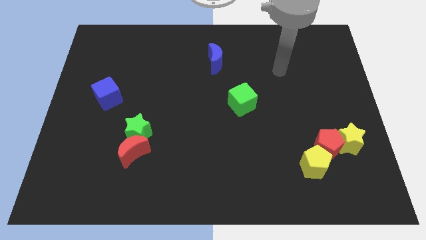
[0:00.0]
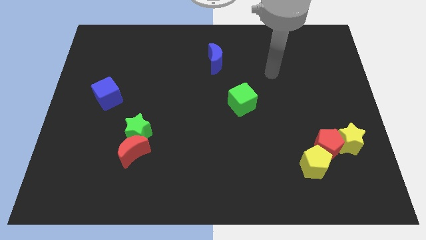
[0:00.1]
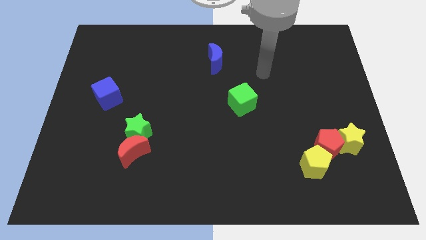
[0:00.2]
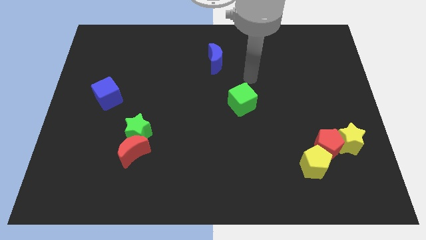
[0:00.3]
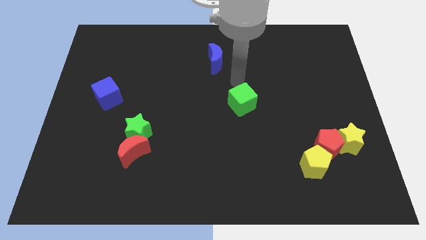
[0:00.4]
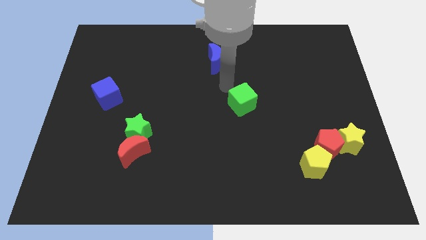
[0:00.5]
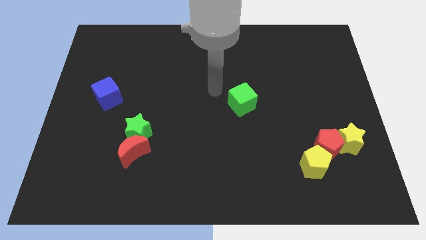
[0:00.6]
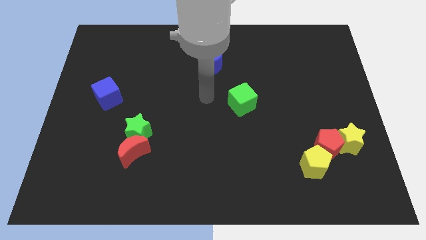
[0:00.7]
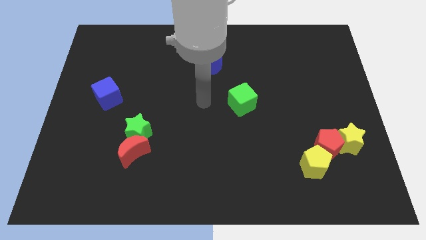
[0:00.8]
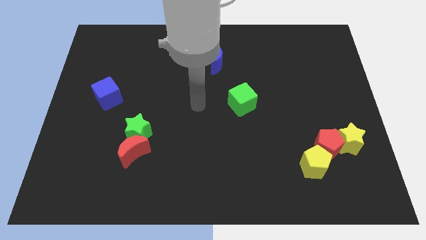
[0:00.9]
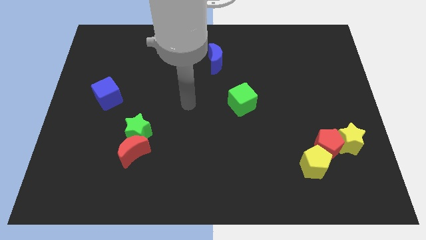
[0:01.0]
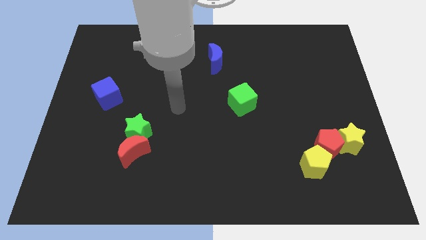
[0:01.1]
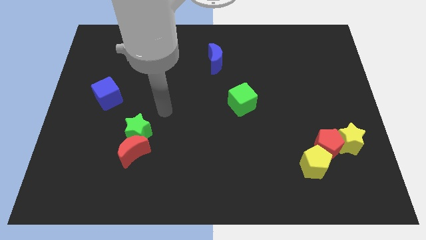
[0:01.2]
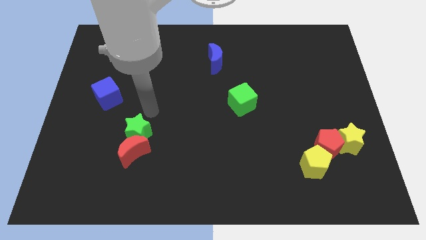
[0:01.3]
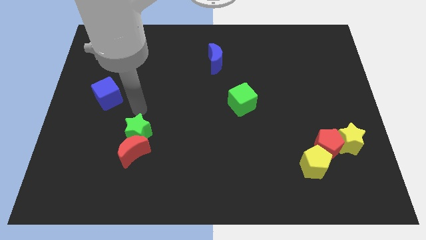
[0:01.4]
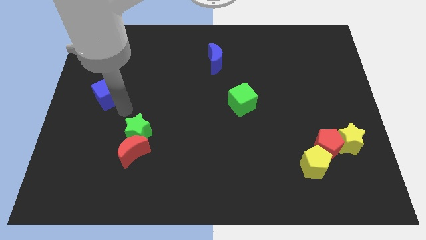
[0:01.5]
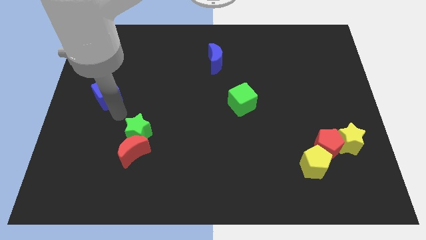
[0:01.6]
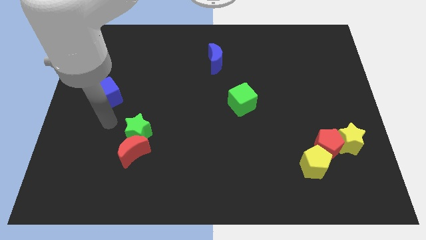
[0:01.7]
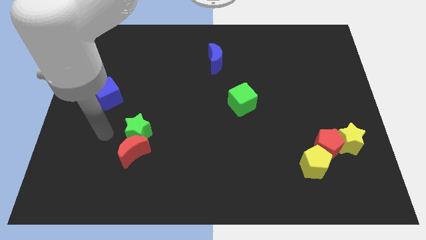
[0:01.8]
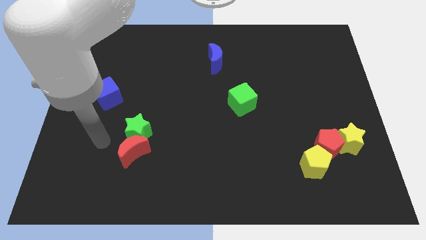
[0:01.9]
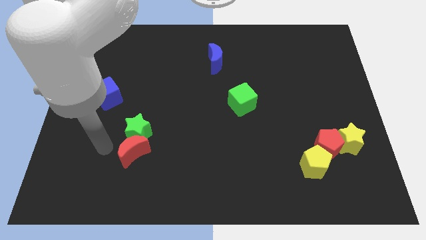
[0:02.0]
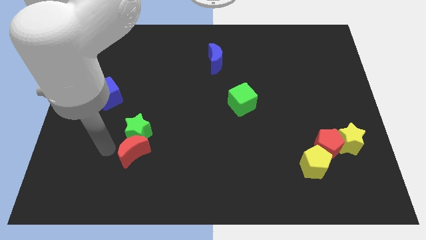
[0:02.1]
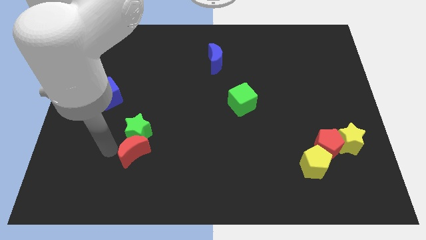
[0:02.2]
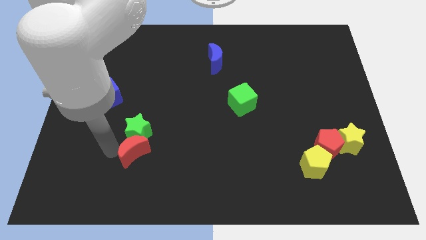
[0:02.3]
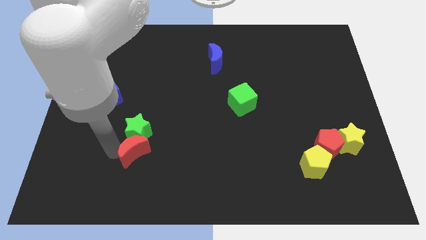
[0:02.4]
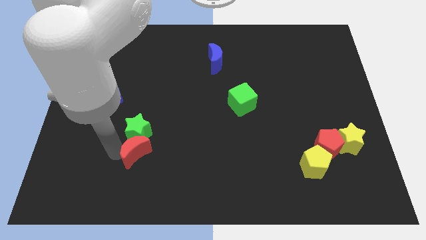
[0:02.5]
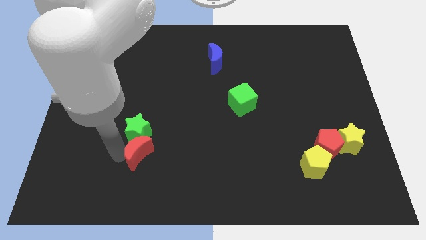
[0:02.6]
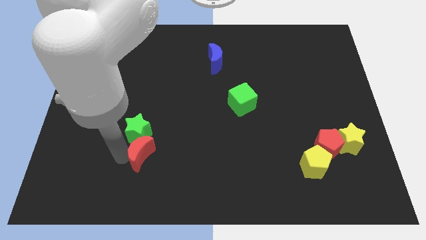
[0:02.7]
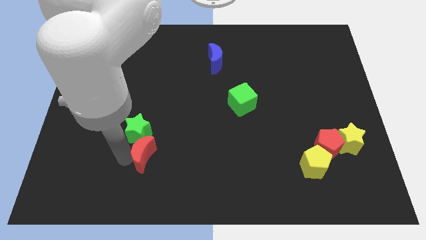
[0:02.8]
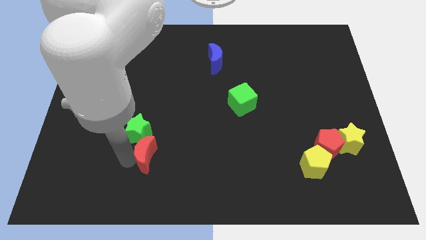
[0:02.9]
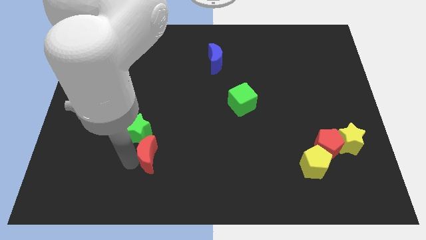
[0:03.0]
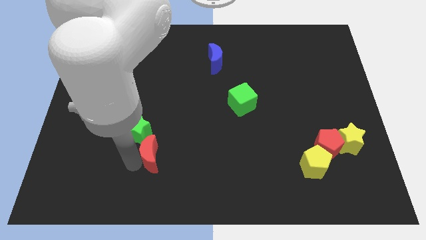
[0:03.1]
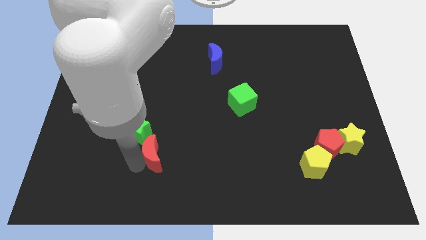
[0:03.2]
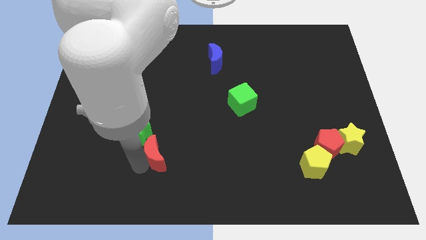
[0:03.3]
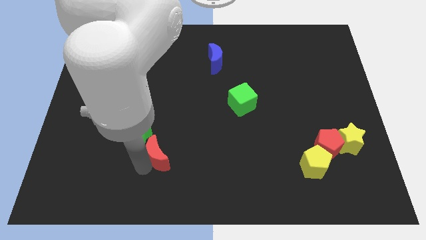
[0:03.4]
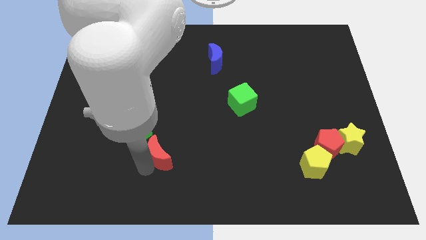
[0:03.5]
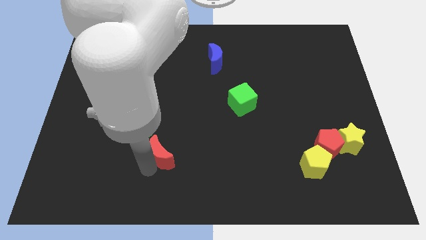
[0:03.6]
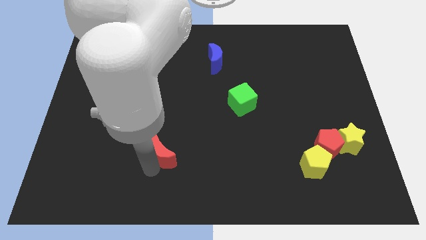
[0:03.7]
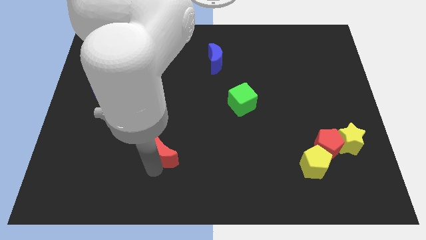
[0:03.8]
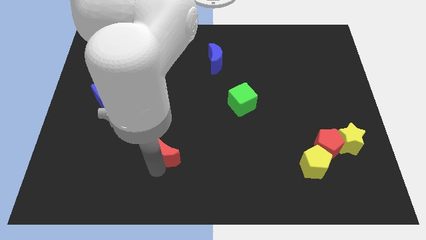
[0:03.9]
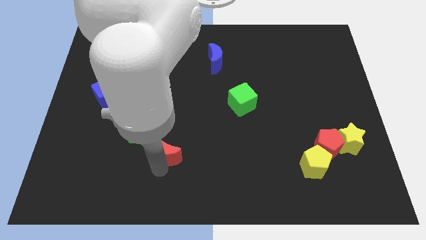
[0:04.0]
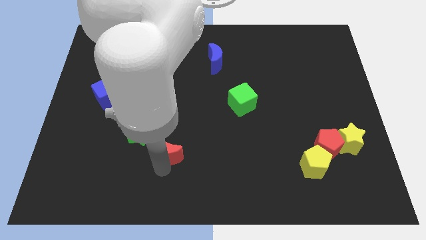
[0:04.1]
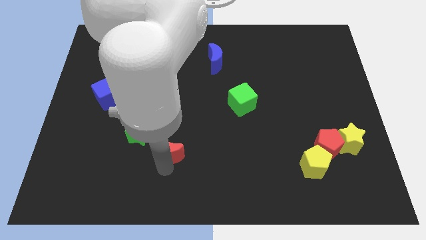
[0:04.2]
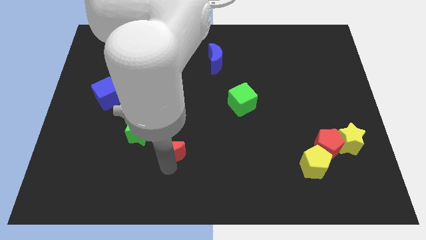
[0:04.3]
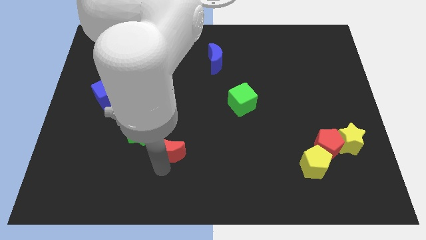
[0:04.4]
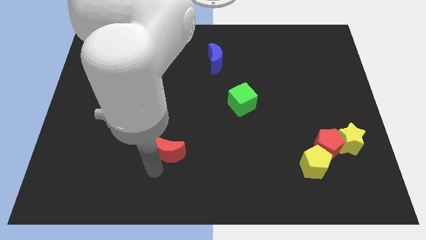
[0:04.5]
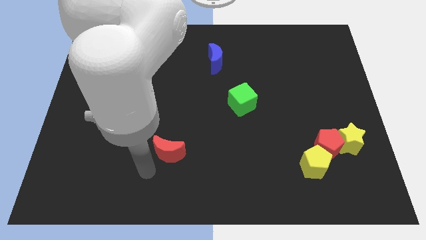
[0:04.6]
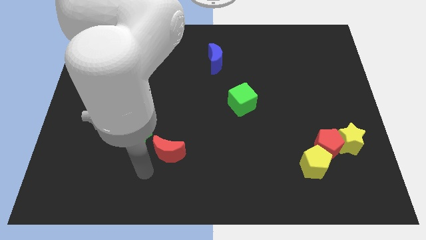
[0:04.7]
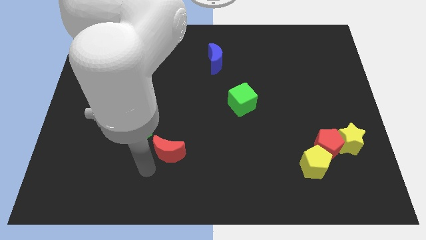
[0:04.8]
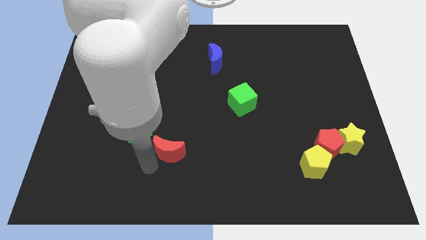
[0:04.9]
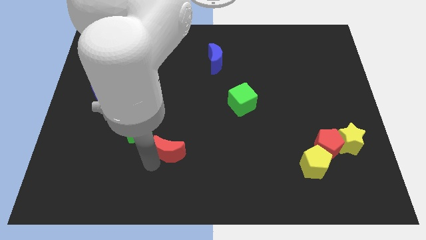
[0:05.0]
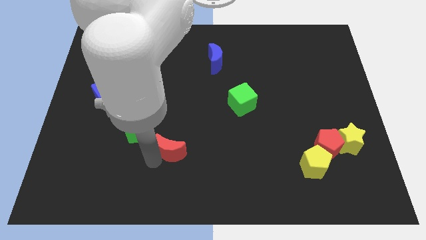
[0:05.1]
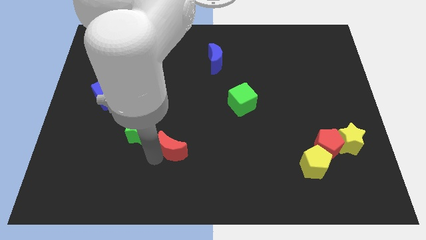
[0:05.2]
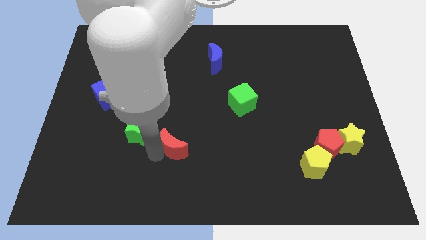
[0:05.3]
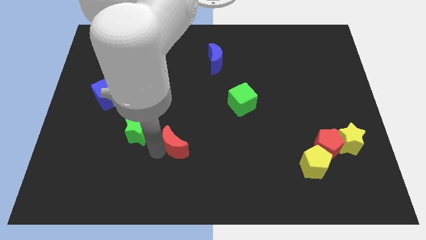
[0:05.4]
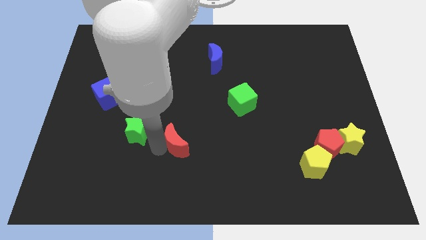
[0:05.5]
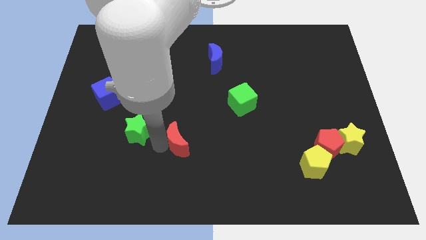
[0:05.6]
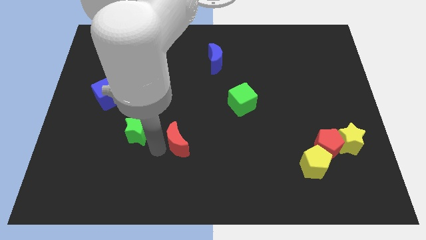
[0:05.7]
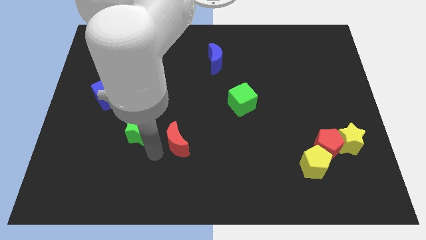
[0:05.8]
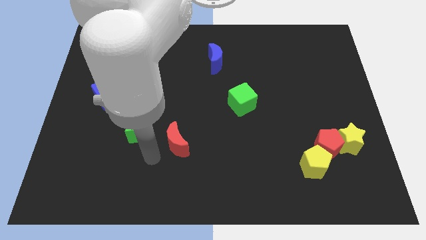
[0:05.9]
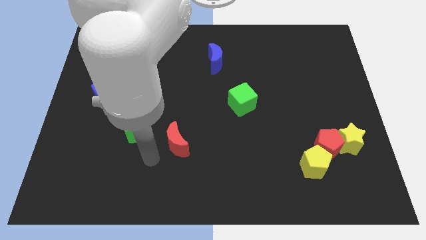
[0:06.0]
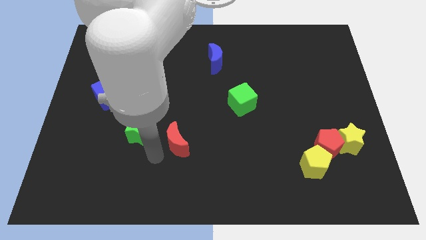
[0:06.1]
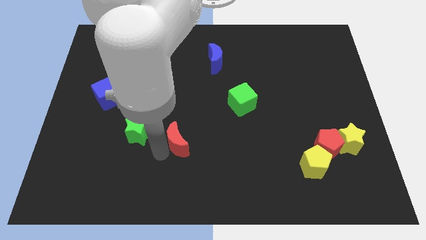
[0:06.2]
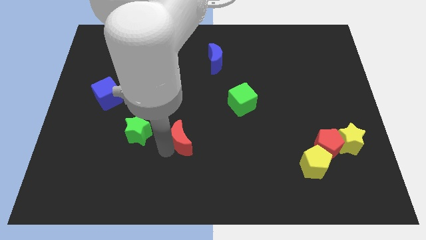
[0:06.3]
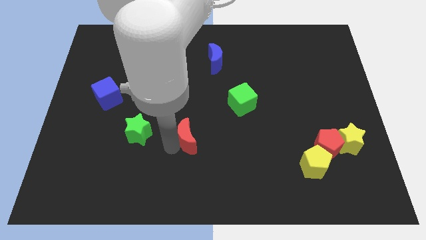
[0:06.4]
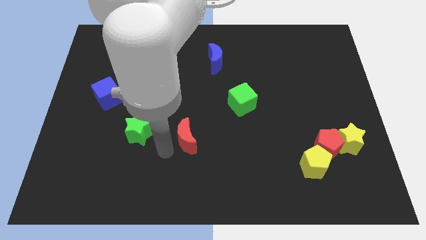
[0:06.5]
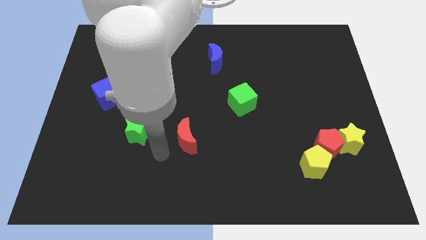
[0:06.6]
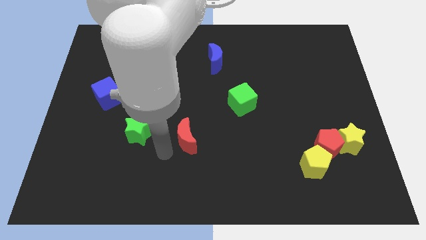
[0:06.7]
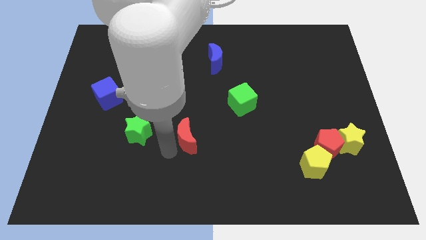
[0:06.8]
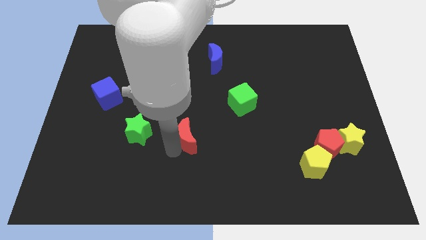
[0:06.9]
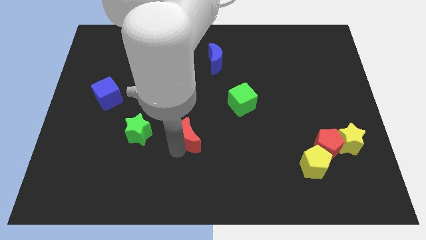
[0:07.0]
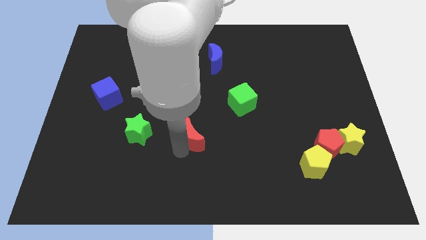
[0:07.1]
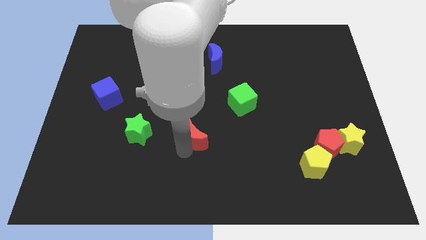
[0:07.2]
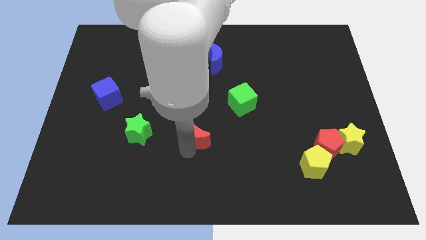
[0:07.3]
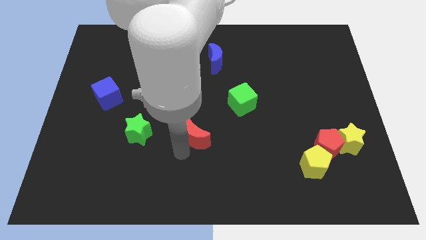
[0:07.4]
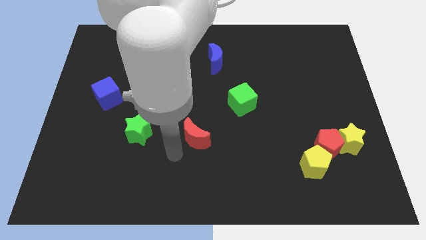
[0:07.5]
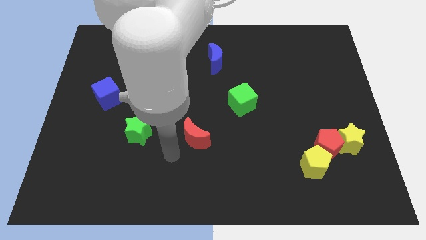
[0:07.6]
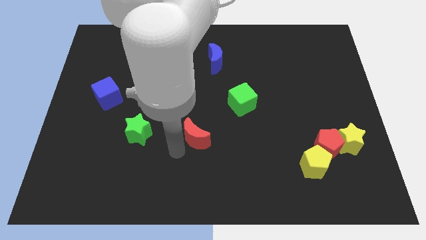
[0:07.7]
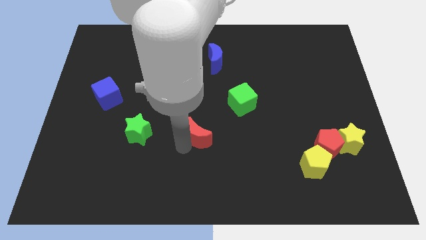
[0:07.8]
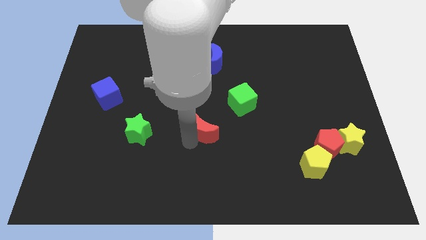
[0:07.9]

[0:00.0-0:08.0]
slide the red moon diagonally down and to the left of the green cube
